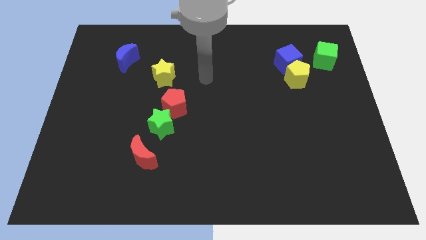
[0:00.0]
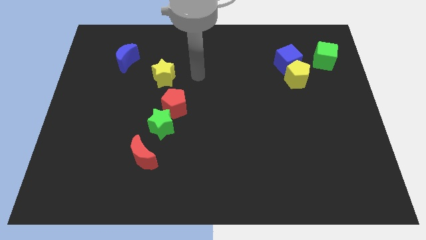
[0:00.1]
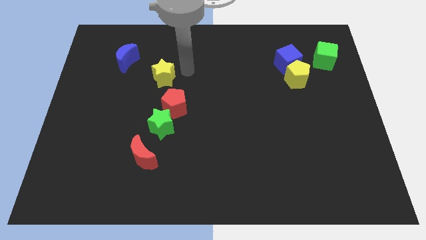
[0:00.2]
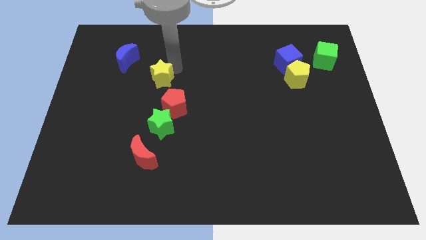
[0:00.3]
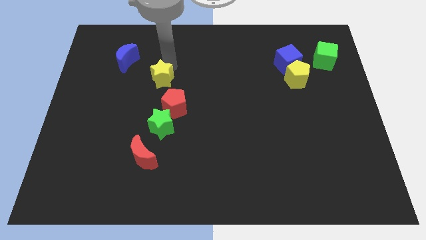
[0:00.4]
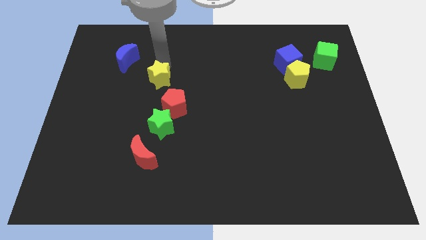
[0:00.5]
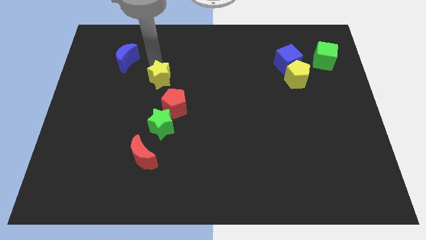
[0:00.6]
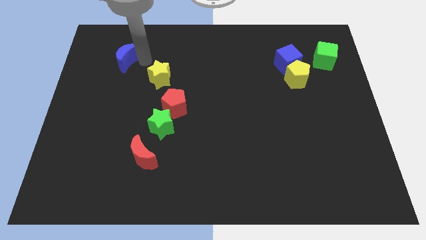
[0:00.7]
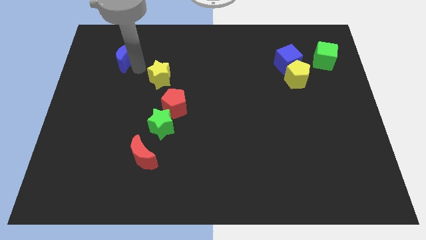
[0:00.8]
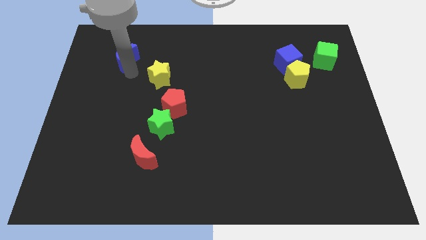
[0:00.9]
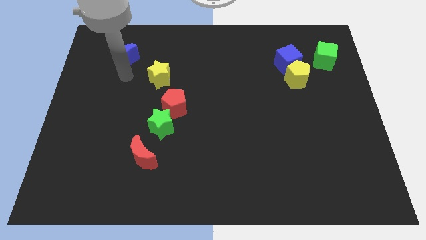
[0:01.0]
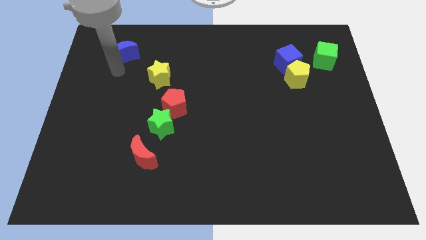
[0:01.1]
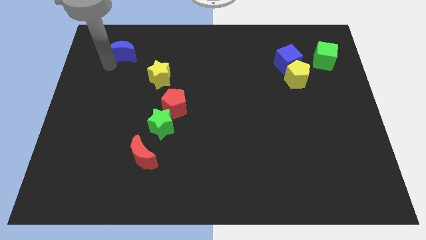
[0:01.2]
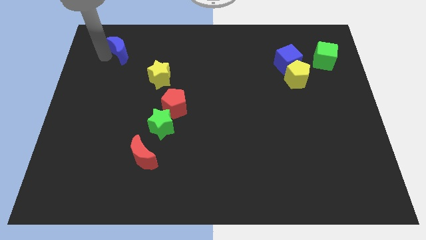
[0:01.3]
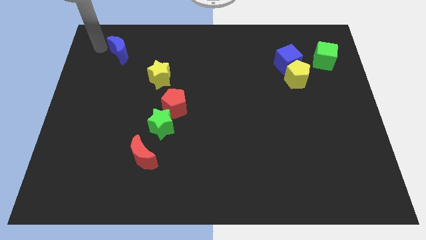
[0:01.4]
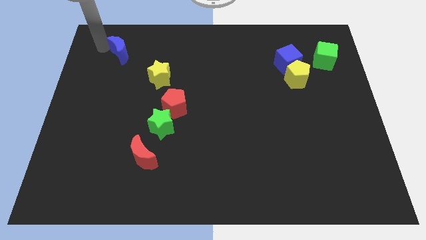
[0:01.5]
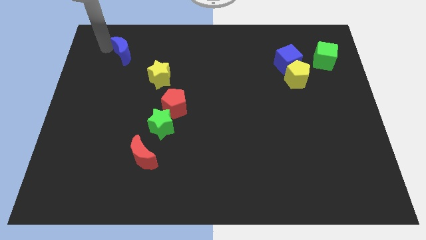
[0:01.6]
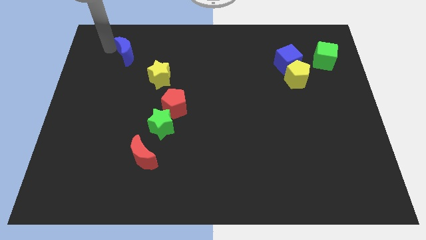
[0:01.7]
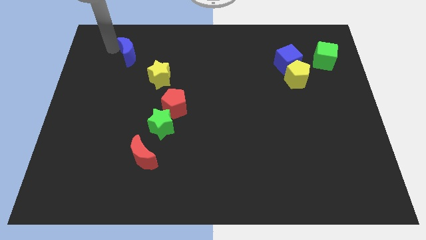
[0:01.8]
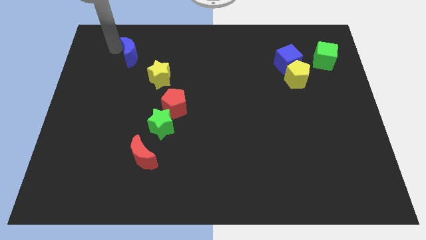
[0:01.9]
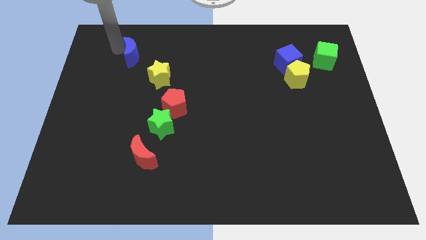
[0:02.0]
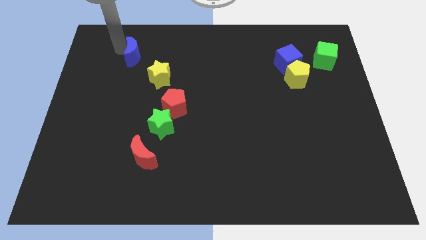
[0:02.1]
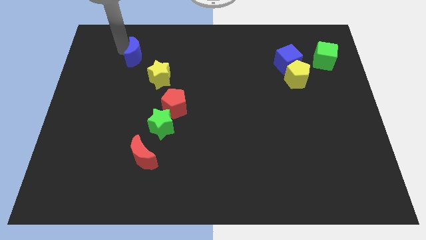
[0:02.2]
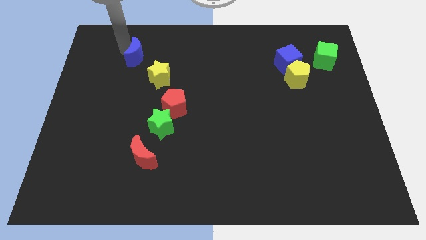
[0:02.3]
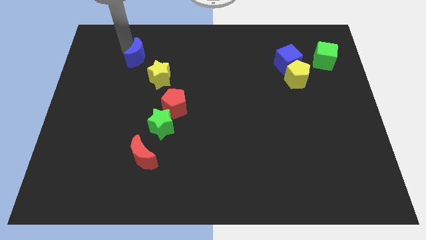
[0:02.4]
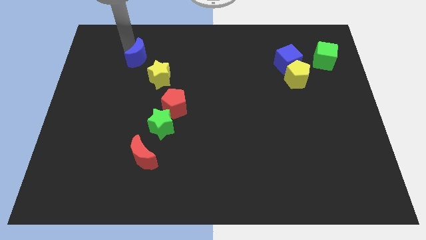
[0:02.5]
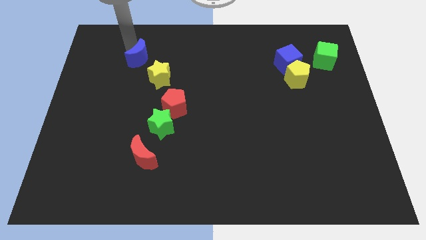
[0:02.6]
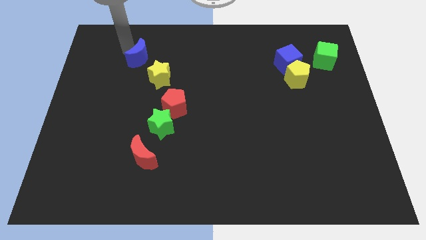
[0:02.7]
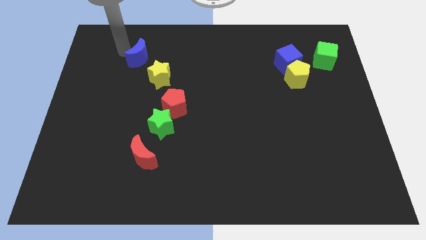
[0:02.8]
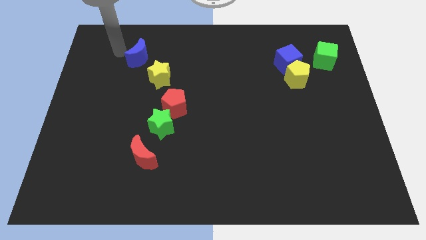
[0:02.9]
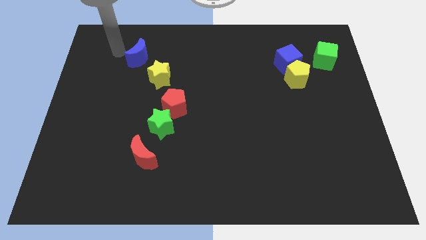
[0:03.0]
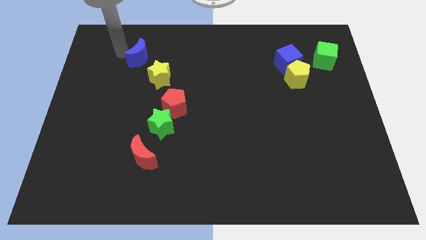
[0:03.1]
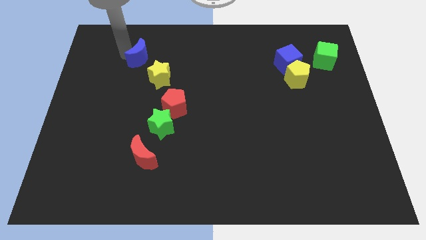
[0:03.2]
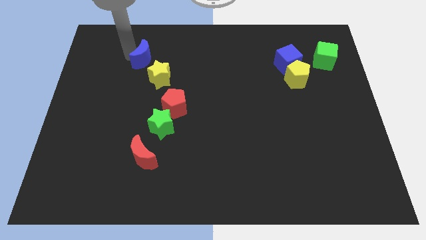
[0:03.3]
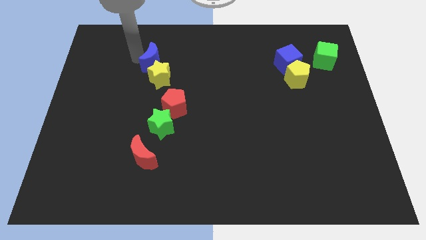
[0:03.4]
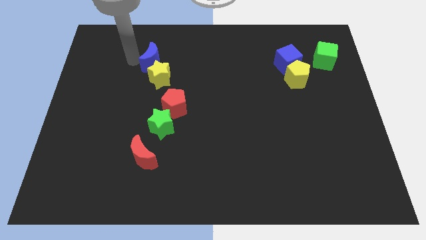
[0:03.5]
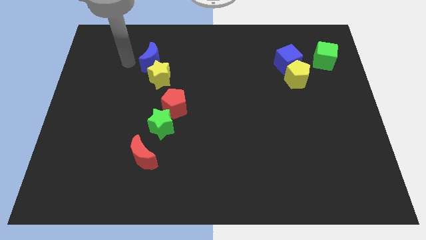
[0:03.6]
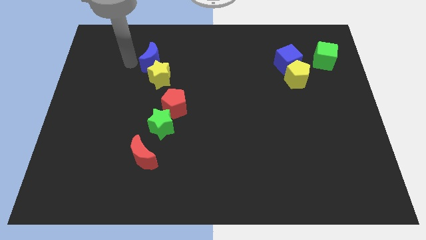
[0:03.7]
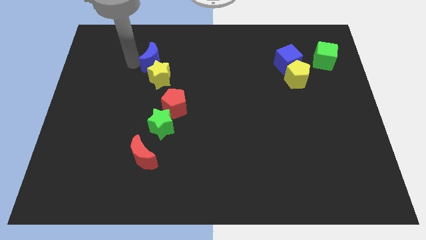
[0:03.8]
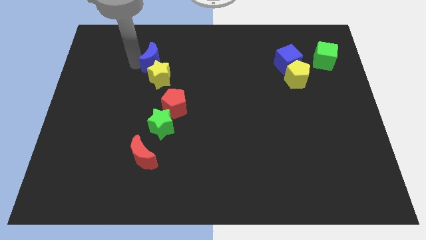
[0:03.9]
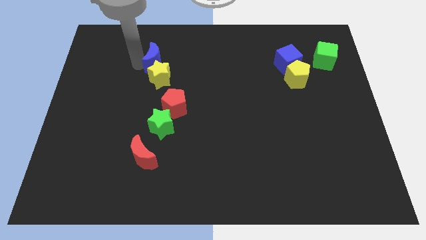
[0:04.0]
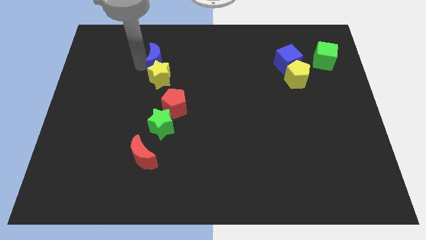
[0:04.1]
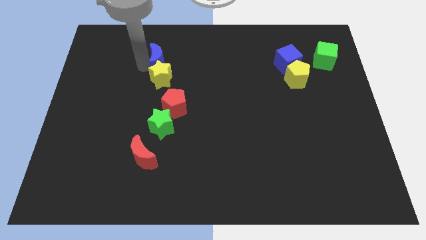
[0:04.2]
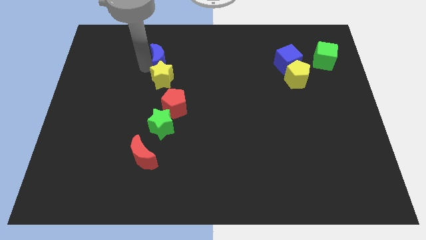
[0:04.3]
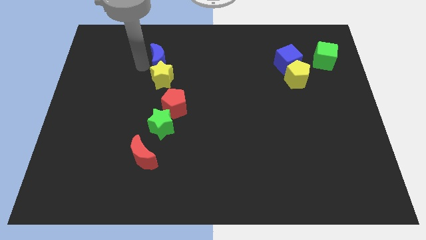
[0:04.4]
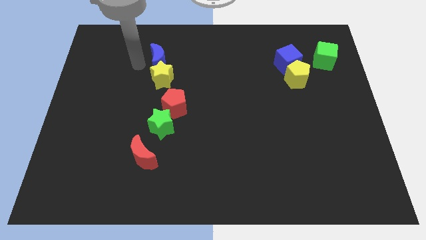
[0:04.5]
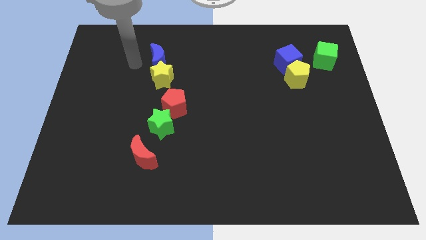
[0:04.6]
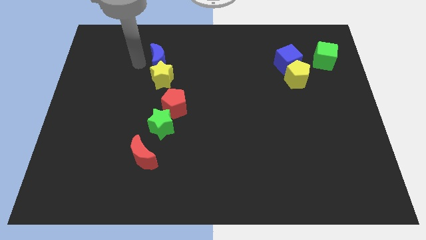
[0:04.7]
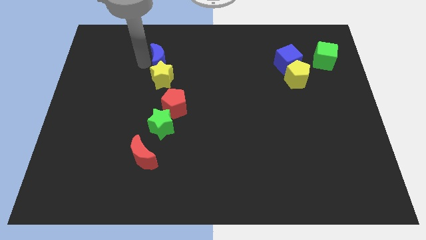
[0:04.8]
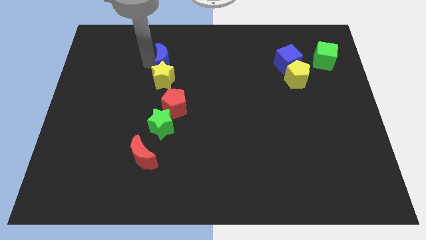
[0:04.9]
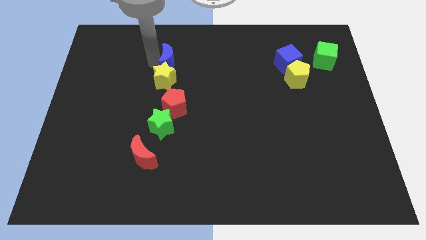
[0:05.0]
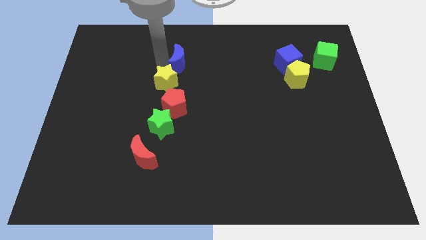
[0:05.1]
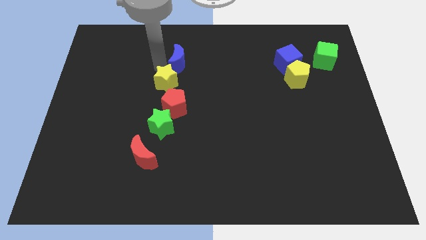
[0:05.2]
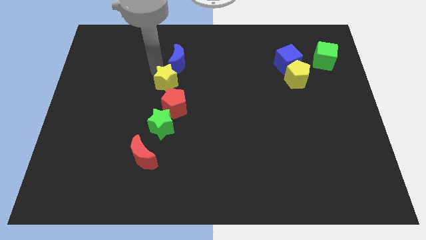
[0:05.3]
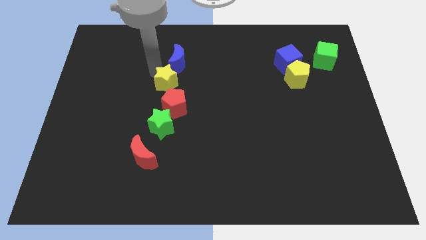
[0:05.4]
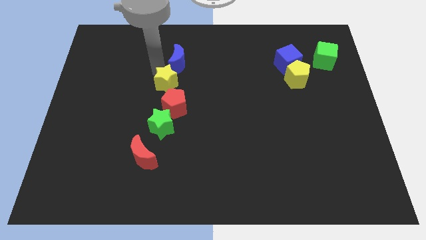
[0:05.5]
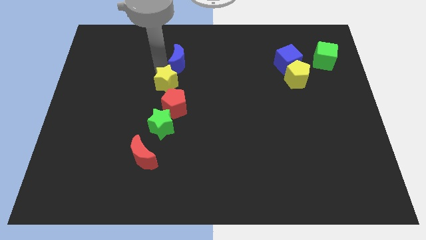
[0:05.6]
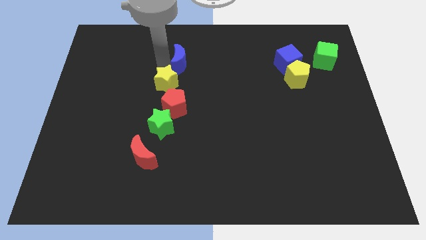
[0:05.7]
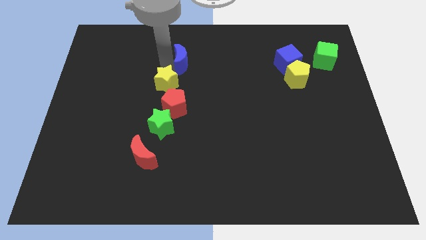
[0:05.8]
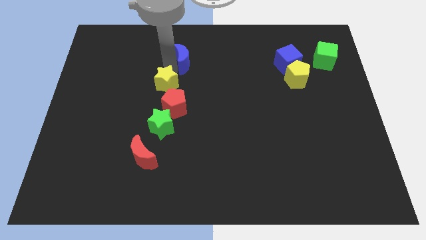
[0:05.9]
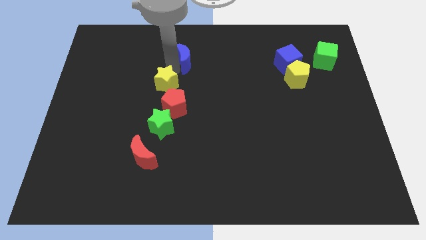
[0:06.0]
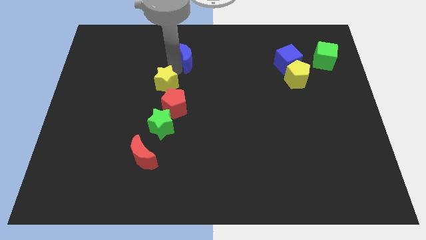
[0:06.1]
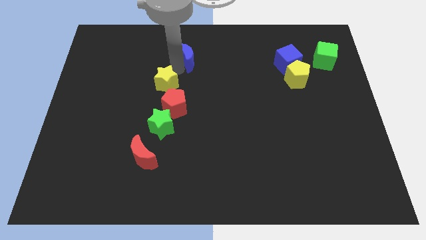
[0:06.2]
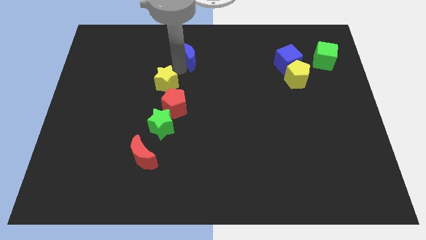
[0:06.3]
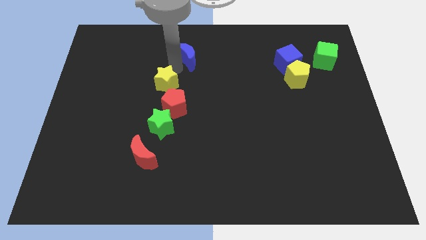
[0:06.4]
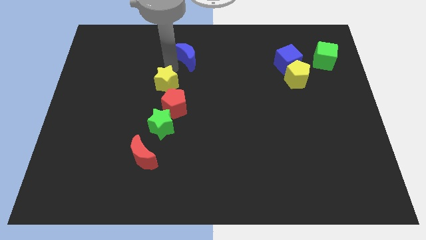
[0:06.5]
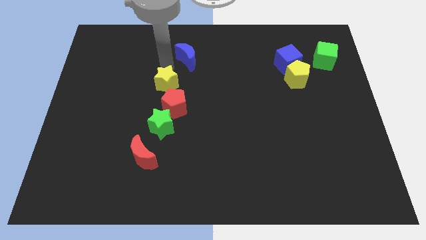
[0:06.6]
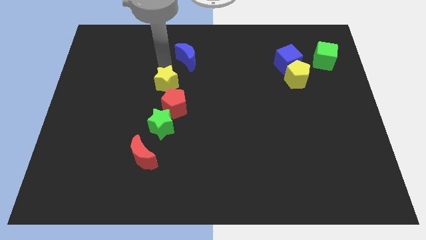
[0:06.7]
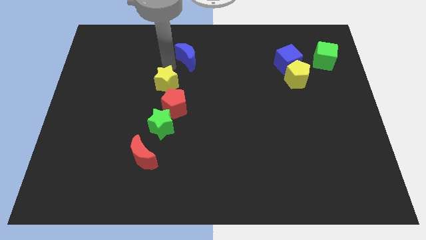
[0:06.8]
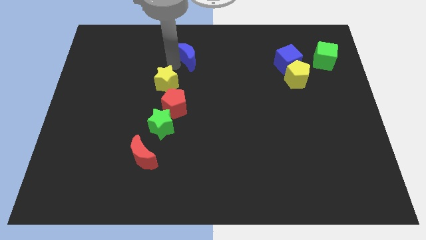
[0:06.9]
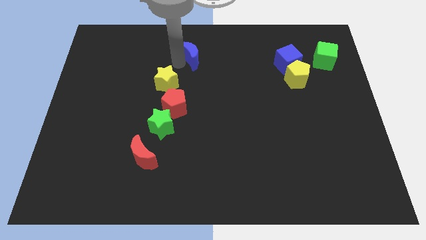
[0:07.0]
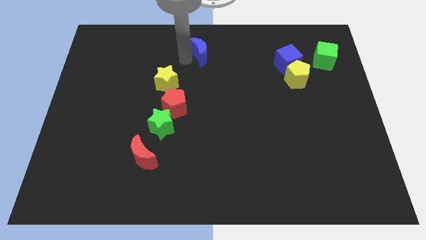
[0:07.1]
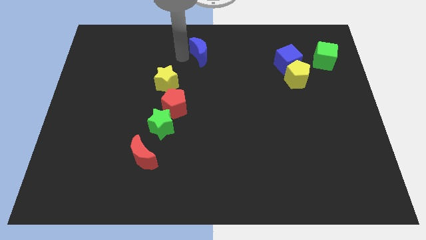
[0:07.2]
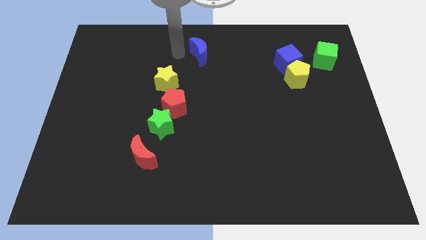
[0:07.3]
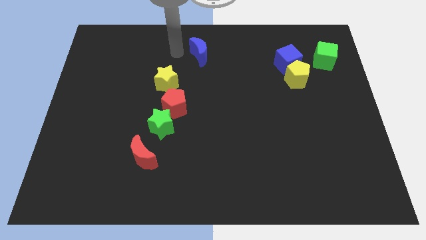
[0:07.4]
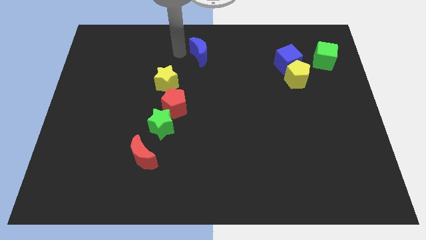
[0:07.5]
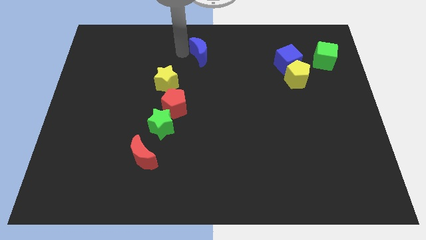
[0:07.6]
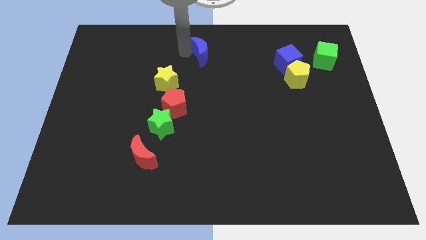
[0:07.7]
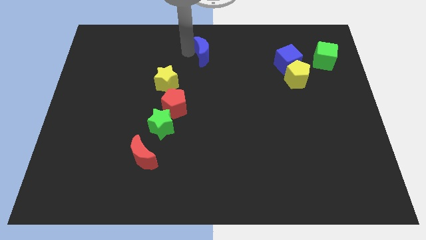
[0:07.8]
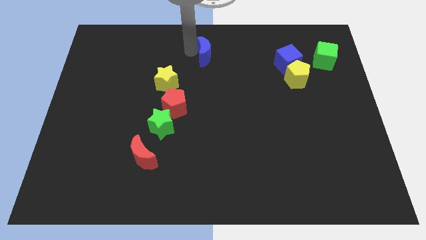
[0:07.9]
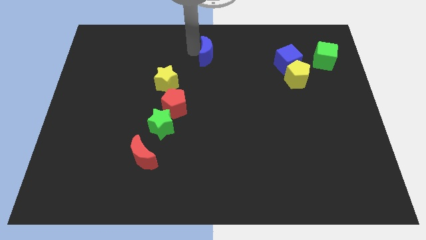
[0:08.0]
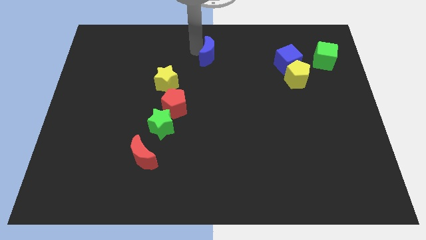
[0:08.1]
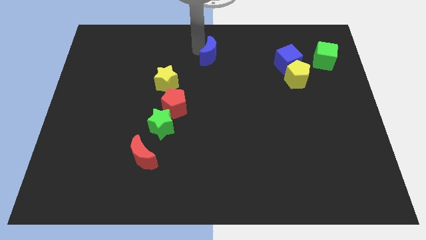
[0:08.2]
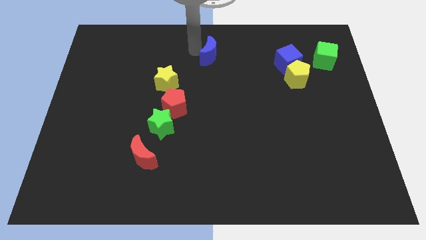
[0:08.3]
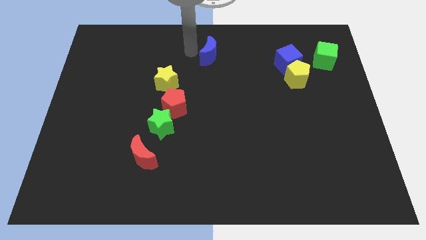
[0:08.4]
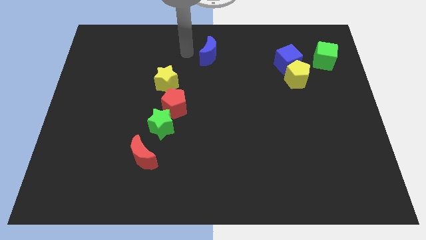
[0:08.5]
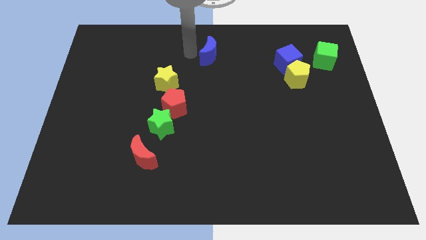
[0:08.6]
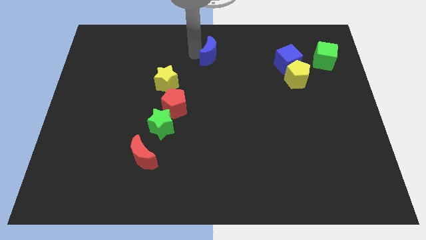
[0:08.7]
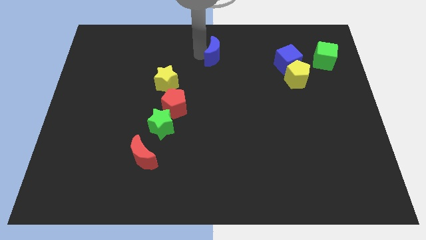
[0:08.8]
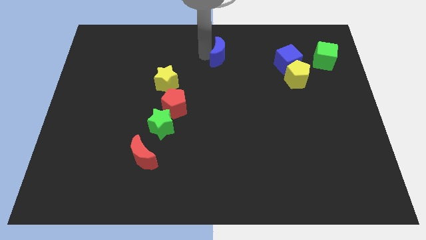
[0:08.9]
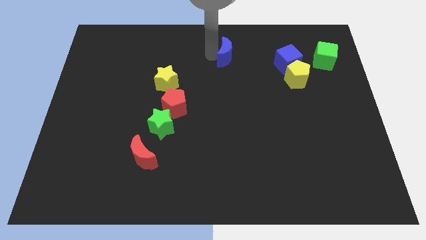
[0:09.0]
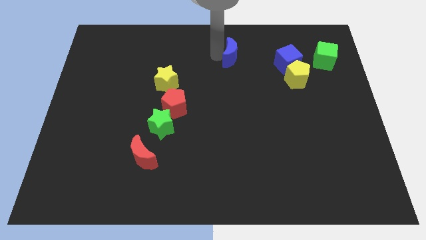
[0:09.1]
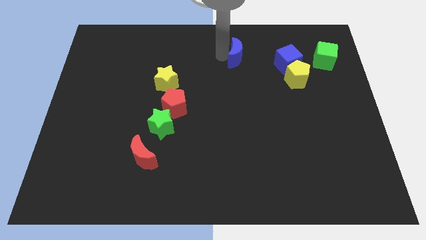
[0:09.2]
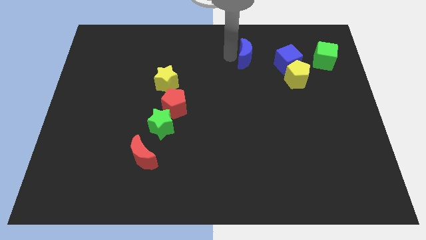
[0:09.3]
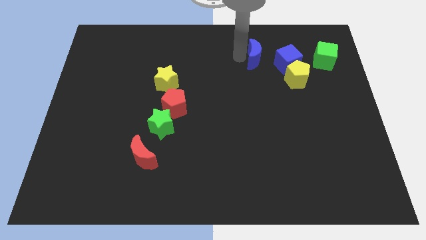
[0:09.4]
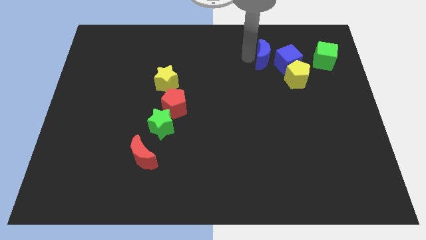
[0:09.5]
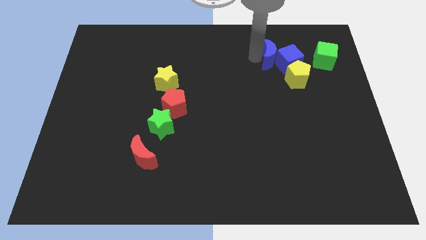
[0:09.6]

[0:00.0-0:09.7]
push the blue moon close to the blue cube
